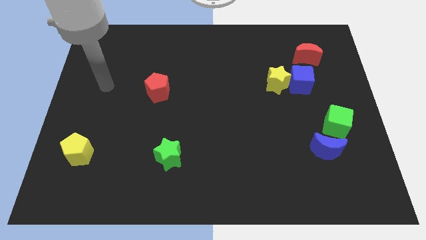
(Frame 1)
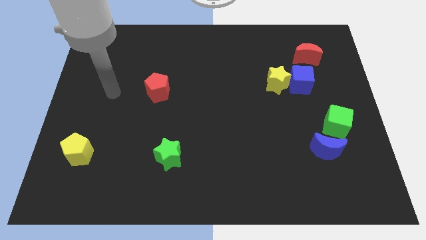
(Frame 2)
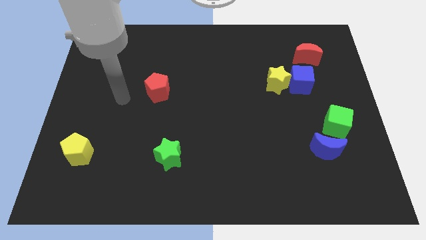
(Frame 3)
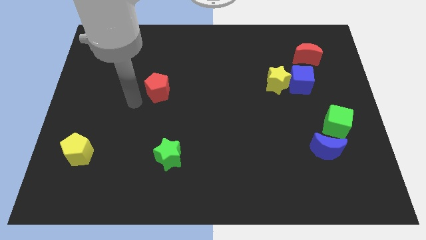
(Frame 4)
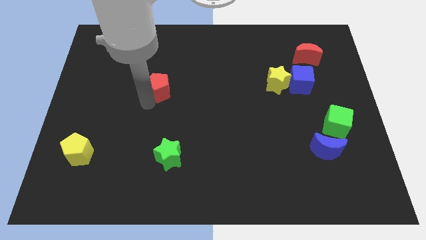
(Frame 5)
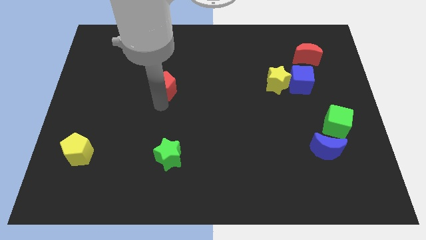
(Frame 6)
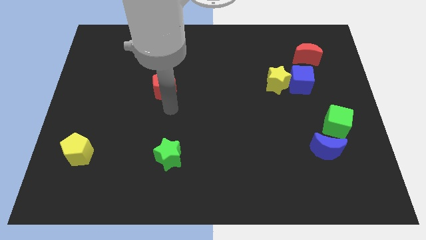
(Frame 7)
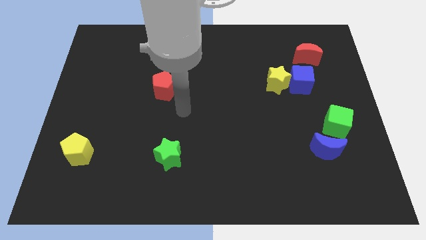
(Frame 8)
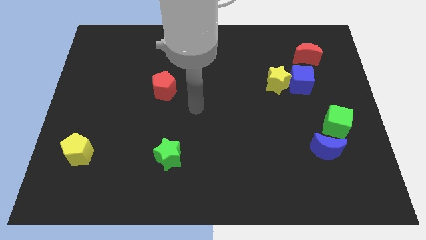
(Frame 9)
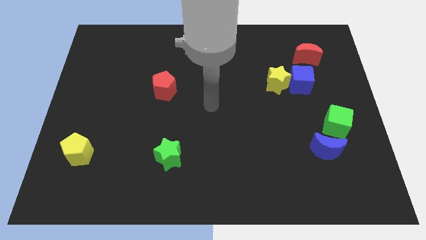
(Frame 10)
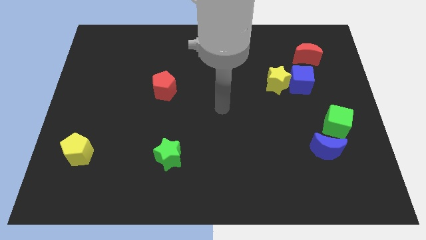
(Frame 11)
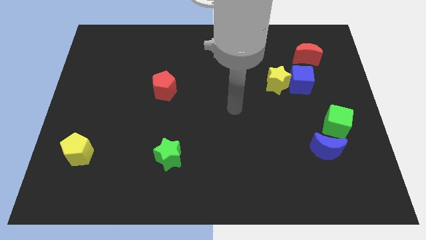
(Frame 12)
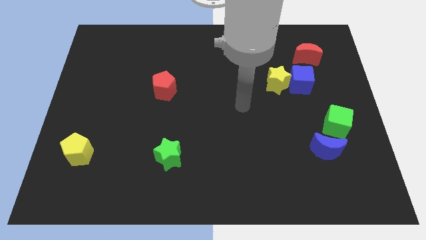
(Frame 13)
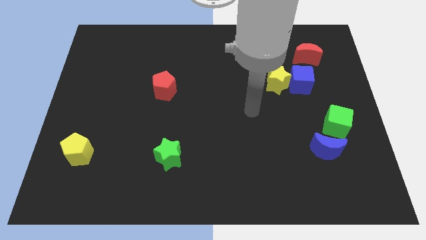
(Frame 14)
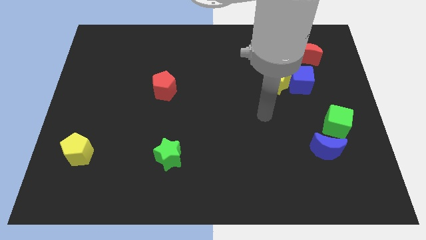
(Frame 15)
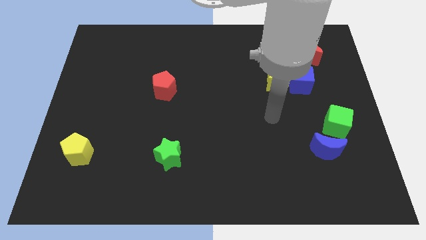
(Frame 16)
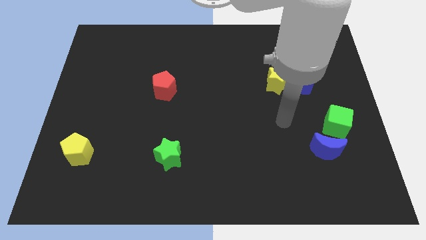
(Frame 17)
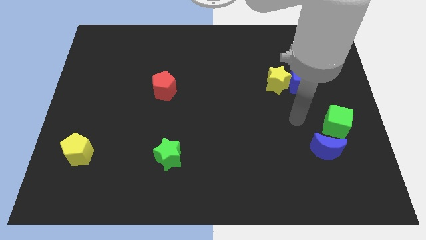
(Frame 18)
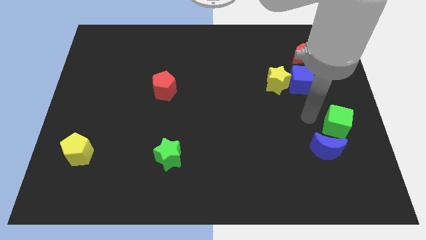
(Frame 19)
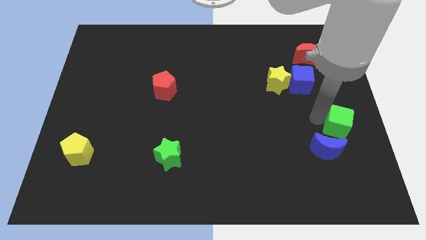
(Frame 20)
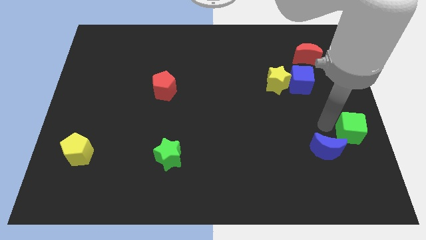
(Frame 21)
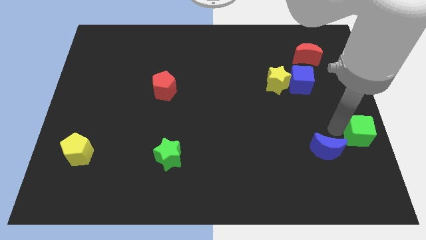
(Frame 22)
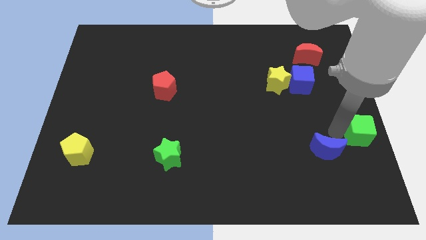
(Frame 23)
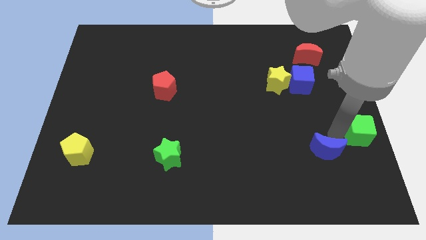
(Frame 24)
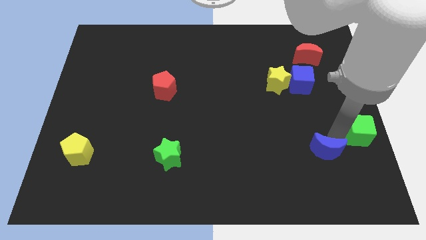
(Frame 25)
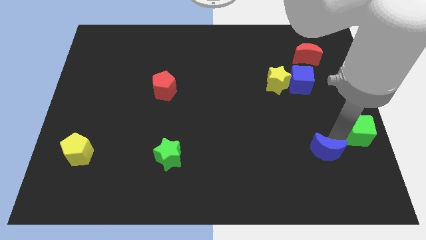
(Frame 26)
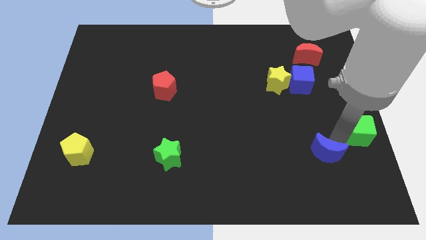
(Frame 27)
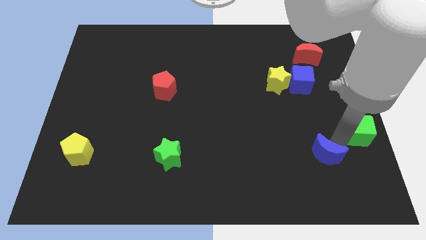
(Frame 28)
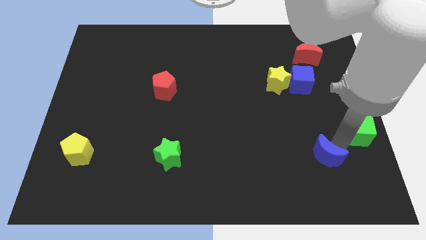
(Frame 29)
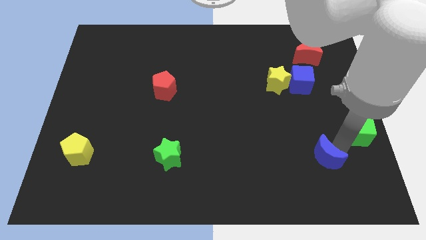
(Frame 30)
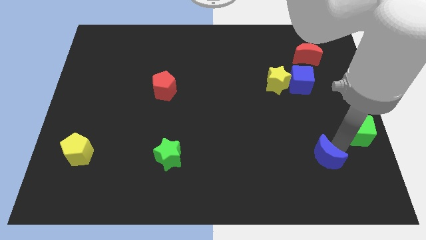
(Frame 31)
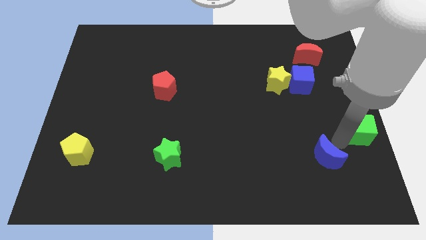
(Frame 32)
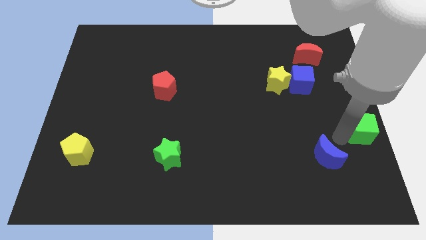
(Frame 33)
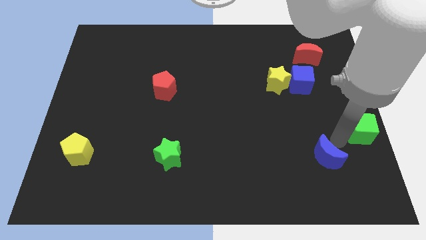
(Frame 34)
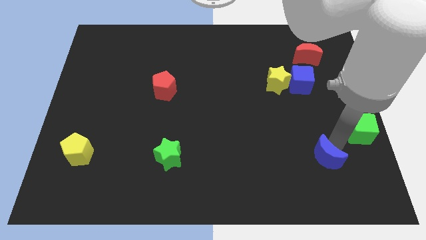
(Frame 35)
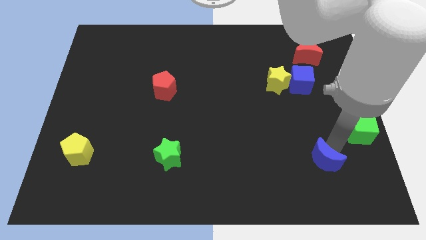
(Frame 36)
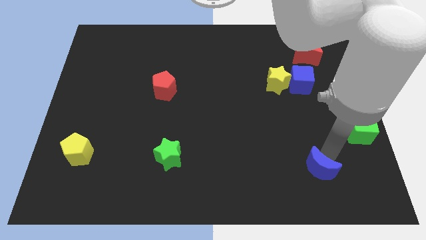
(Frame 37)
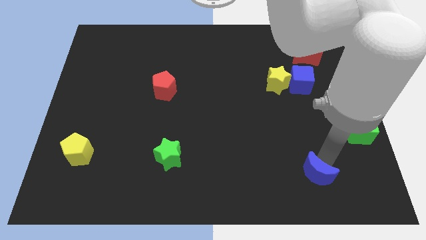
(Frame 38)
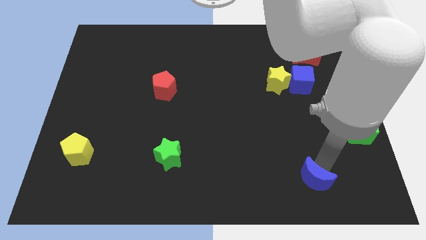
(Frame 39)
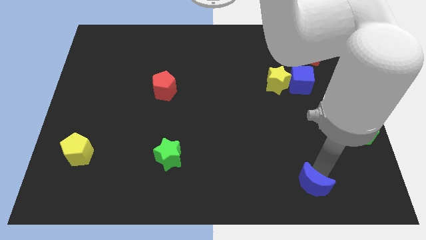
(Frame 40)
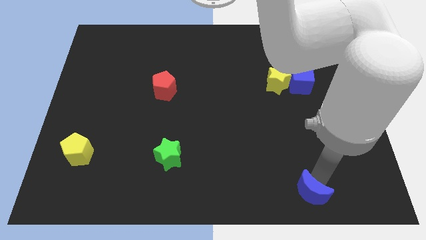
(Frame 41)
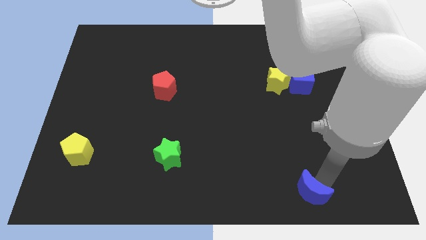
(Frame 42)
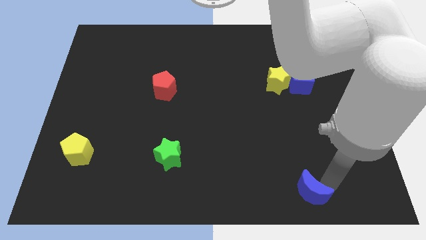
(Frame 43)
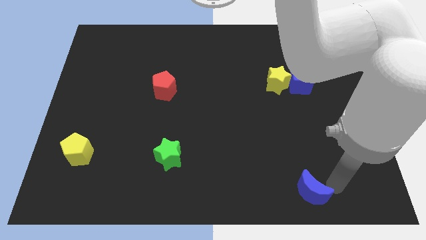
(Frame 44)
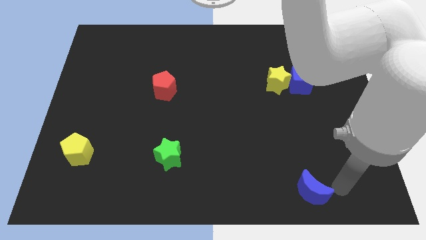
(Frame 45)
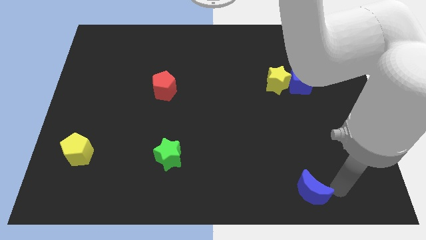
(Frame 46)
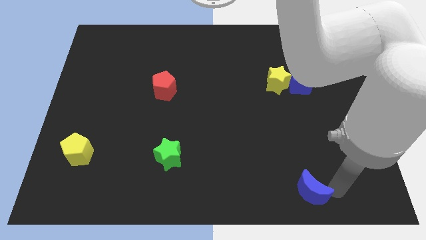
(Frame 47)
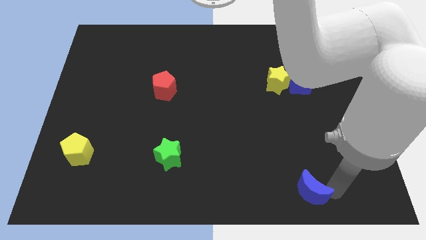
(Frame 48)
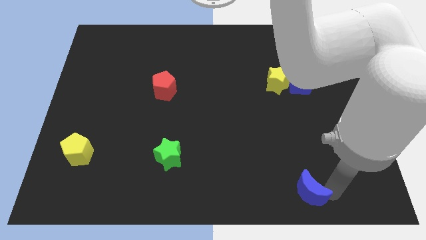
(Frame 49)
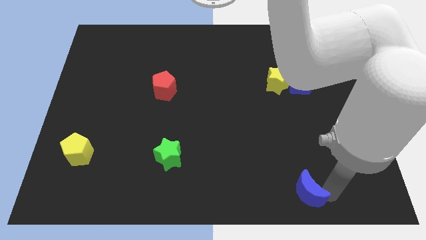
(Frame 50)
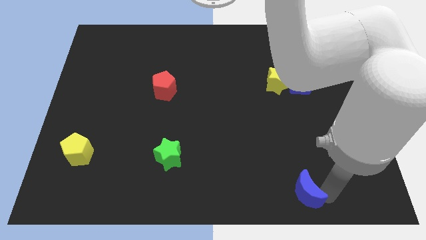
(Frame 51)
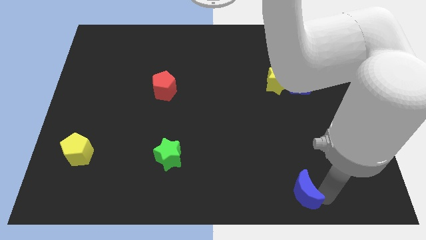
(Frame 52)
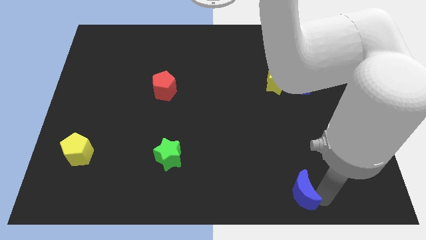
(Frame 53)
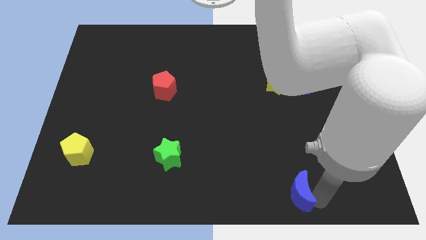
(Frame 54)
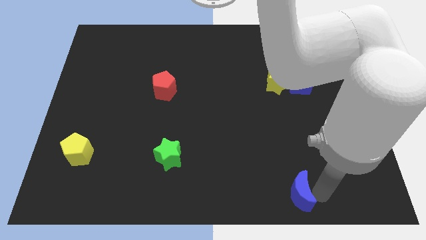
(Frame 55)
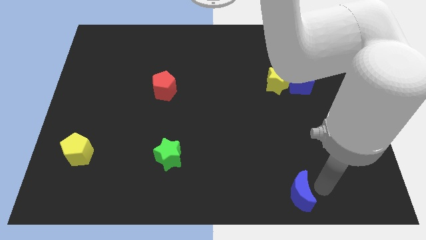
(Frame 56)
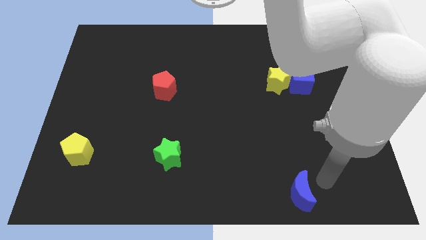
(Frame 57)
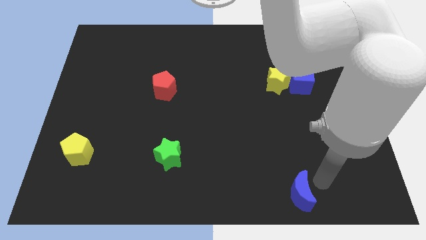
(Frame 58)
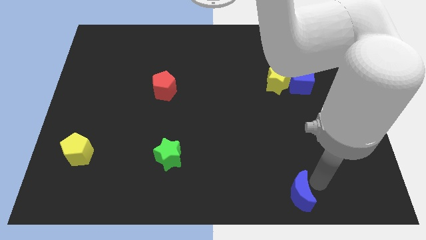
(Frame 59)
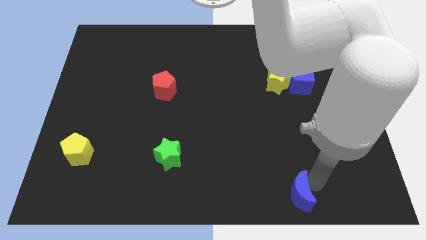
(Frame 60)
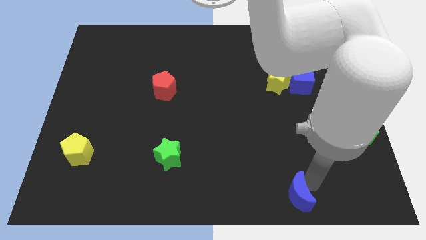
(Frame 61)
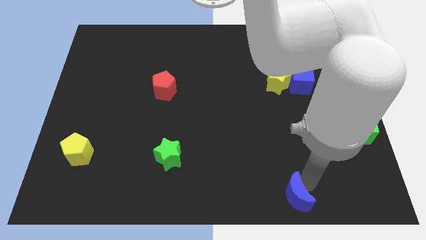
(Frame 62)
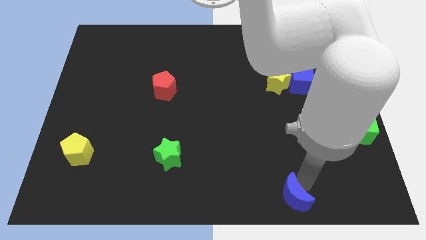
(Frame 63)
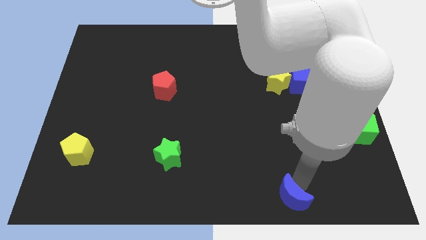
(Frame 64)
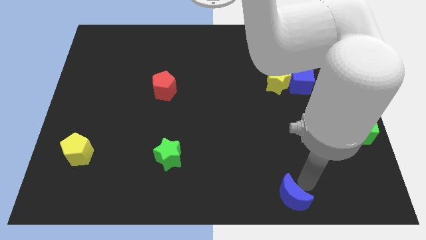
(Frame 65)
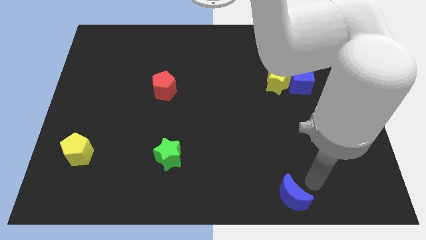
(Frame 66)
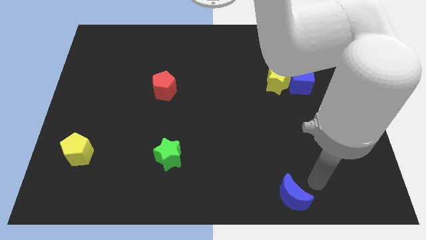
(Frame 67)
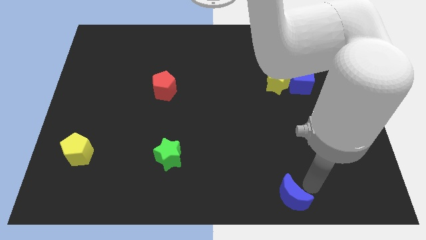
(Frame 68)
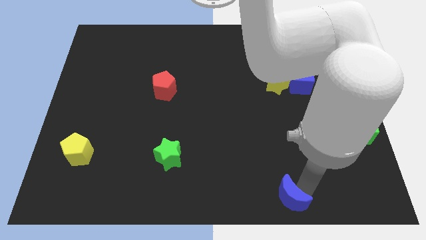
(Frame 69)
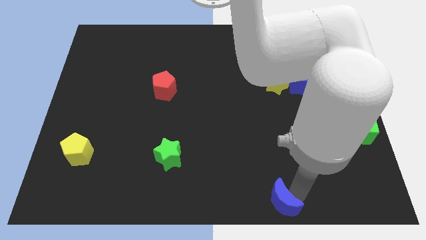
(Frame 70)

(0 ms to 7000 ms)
push the blue moon to the bottom

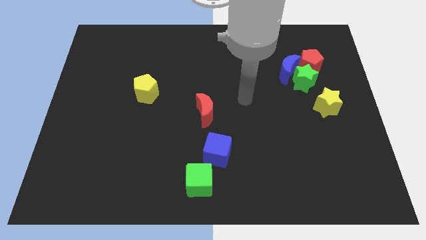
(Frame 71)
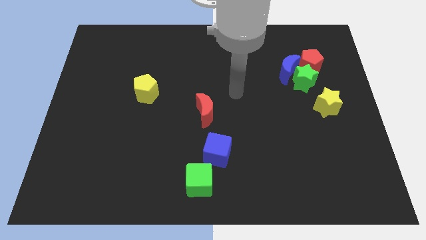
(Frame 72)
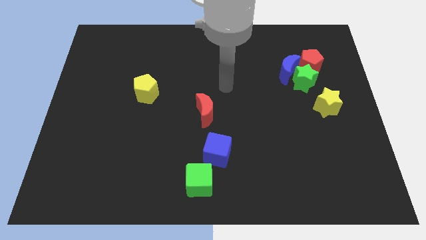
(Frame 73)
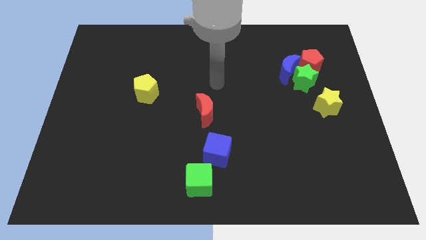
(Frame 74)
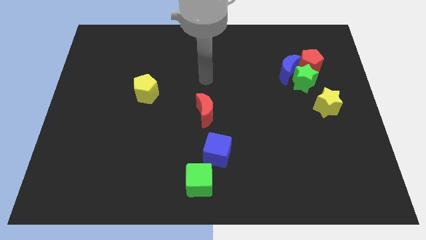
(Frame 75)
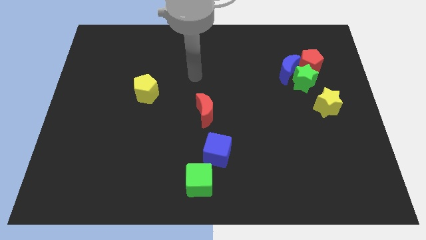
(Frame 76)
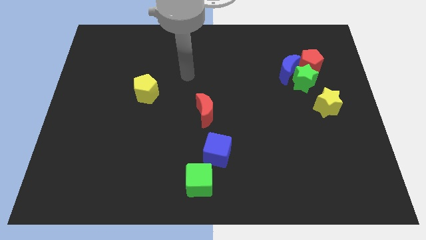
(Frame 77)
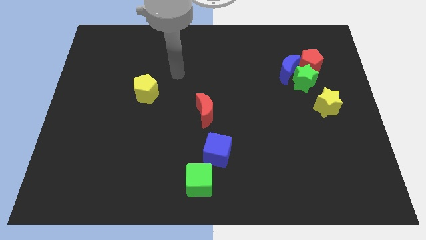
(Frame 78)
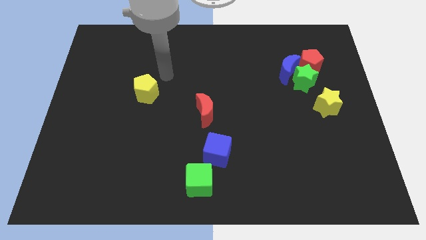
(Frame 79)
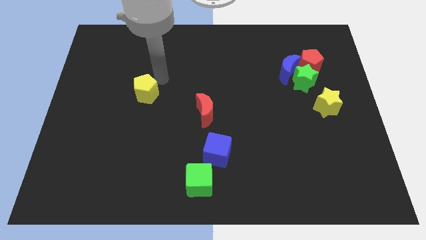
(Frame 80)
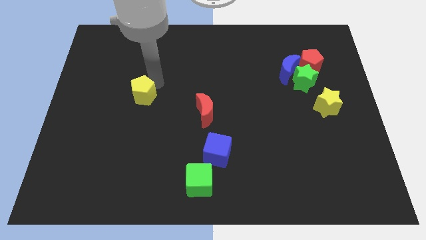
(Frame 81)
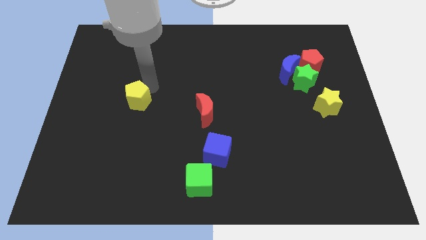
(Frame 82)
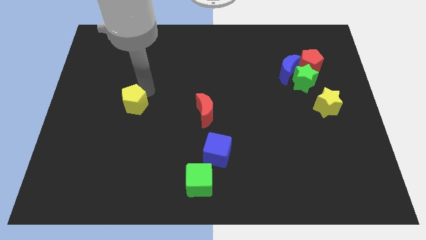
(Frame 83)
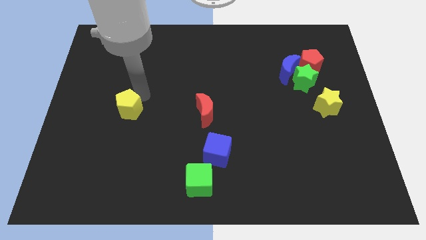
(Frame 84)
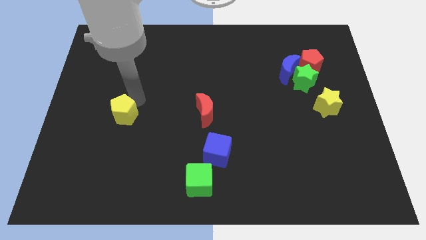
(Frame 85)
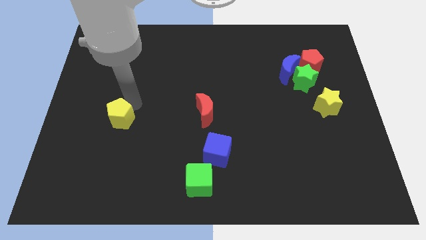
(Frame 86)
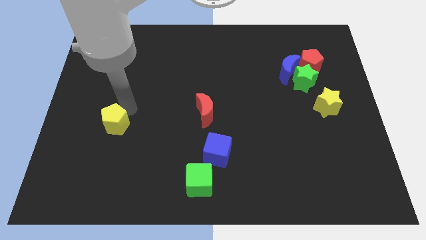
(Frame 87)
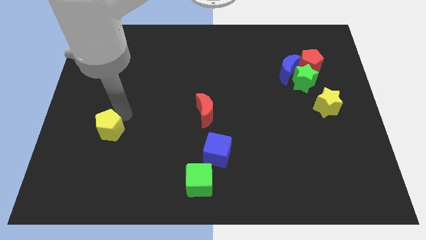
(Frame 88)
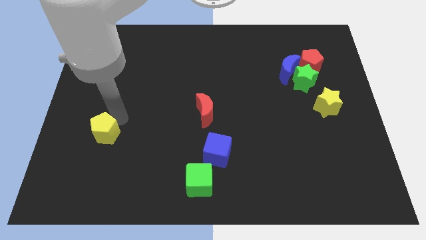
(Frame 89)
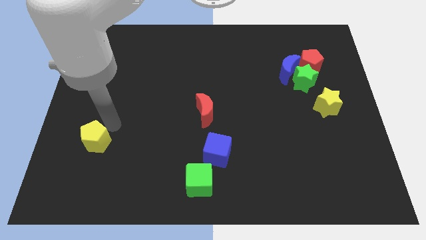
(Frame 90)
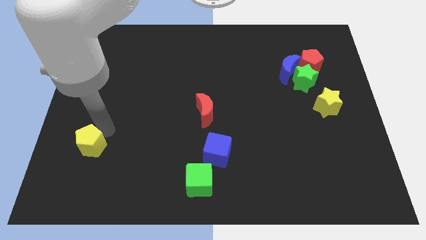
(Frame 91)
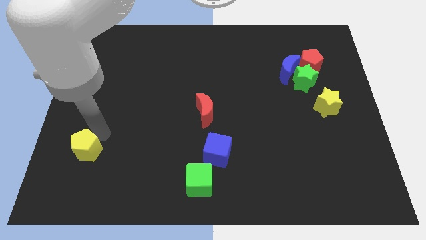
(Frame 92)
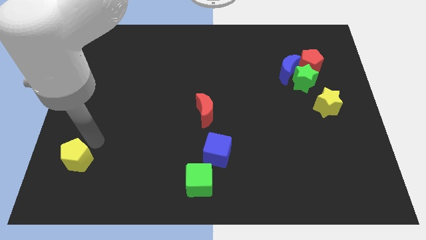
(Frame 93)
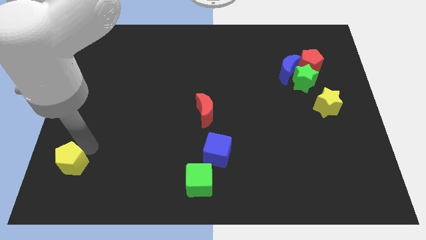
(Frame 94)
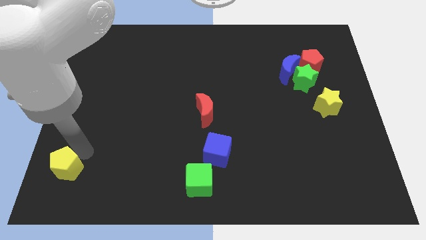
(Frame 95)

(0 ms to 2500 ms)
put the yellow pentagon to the lower left corner
